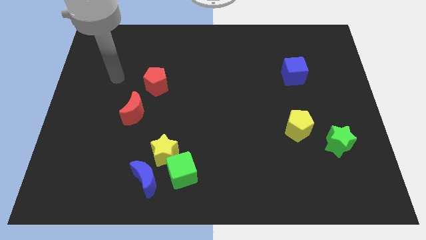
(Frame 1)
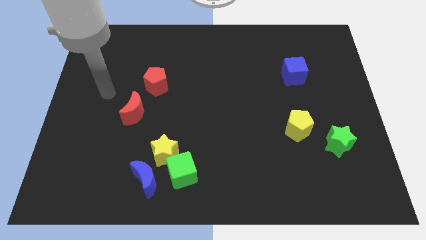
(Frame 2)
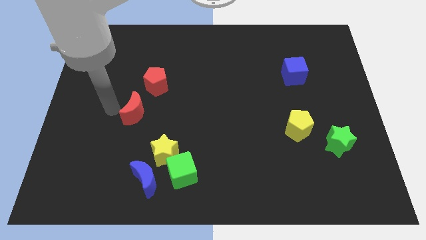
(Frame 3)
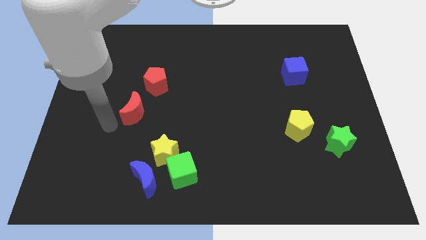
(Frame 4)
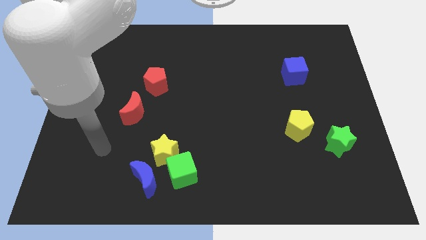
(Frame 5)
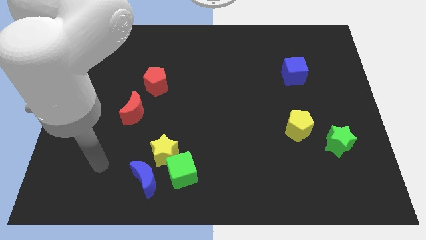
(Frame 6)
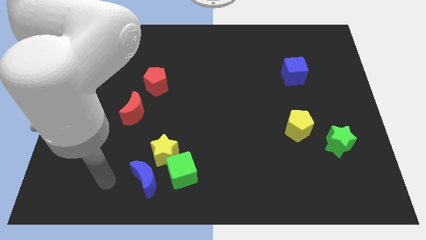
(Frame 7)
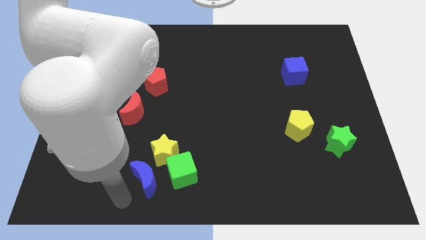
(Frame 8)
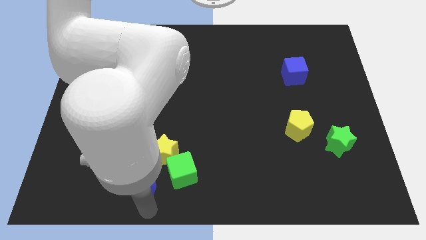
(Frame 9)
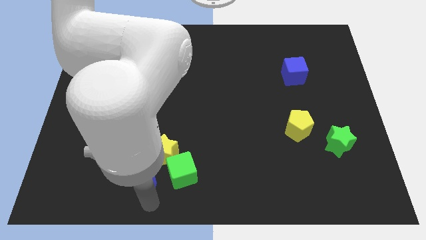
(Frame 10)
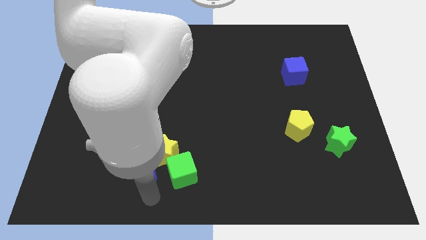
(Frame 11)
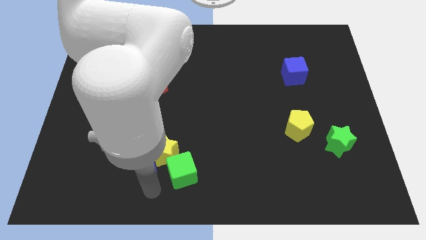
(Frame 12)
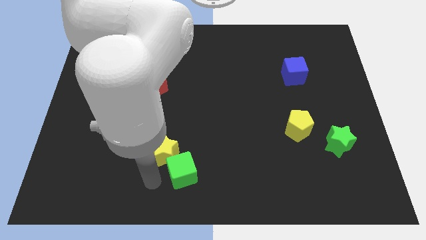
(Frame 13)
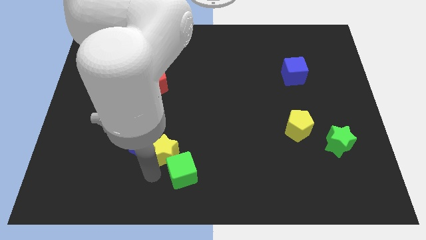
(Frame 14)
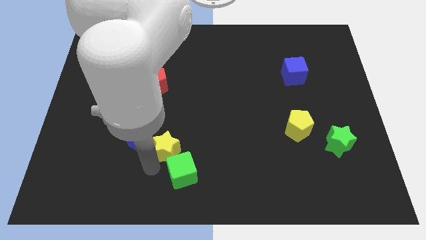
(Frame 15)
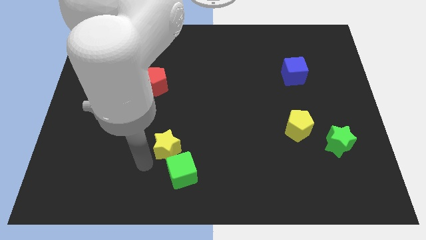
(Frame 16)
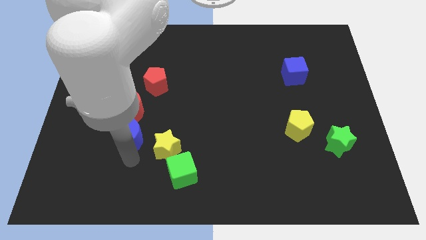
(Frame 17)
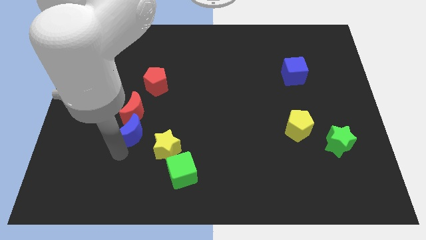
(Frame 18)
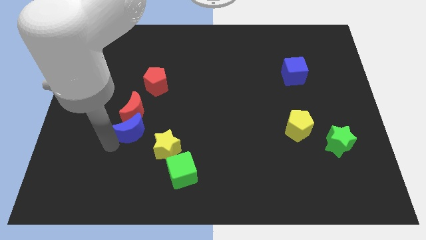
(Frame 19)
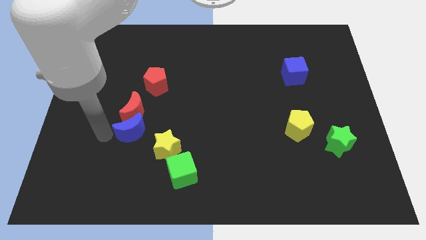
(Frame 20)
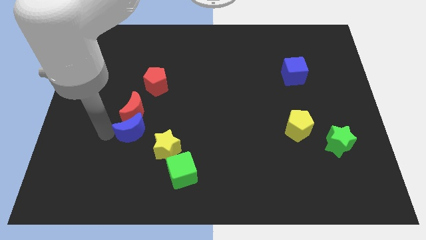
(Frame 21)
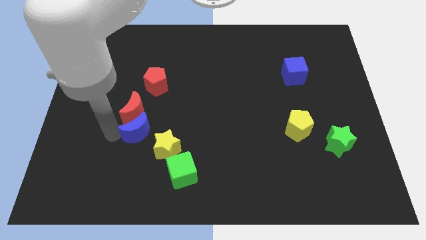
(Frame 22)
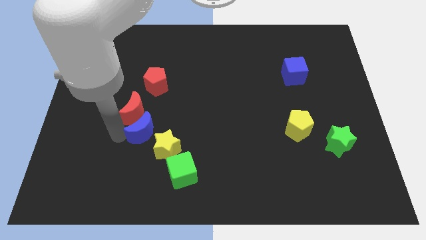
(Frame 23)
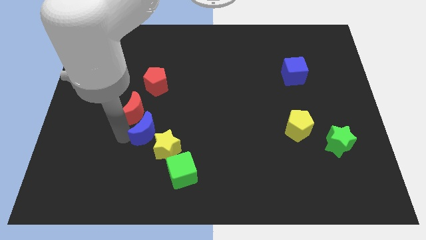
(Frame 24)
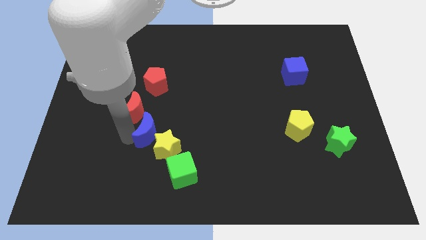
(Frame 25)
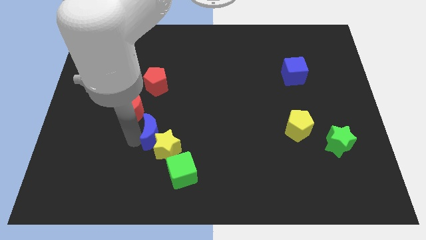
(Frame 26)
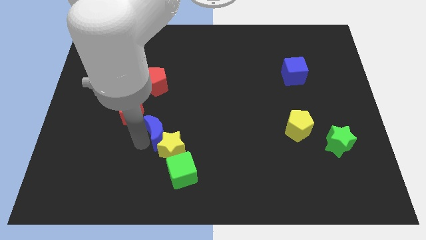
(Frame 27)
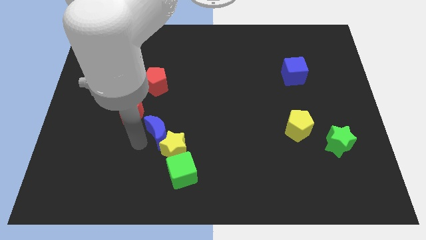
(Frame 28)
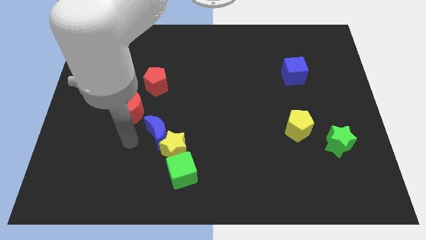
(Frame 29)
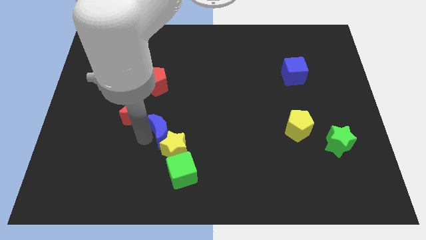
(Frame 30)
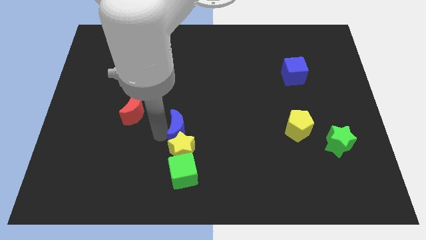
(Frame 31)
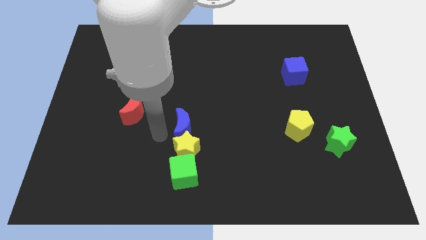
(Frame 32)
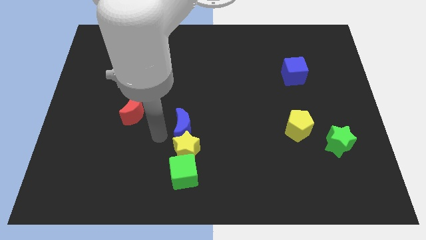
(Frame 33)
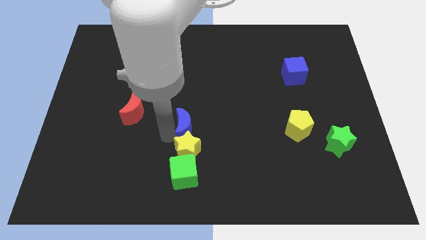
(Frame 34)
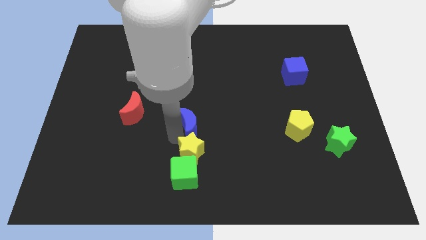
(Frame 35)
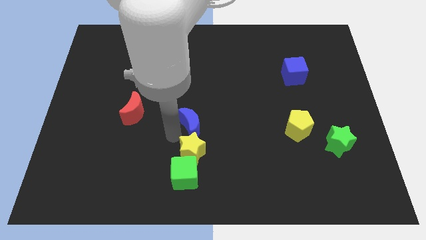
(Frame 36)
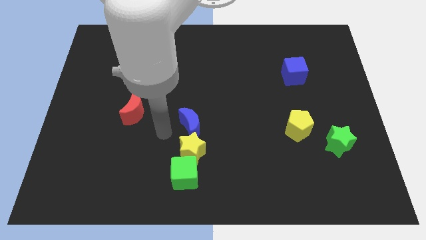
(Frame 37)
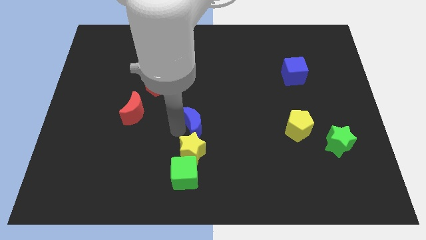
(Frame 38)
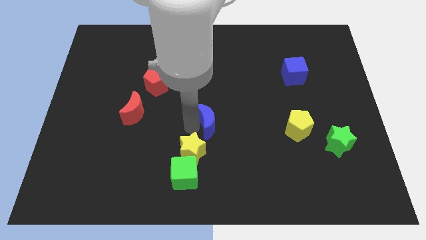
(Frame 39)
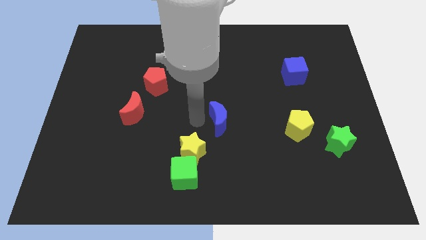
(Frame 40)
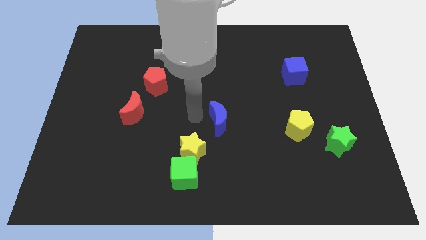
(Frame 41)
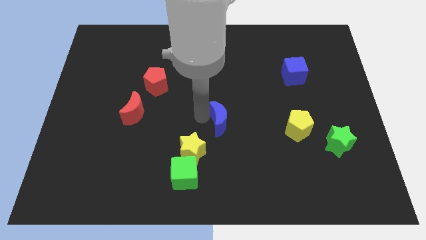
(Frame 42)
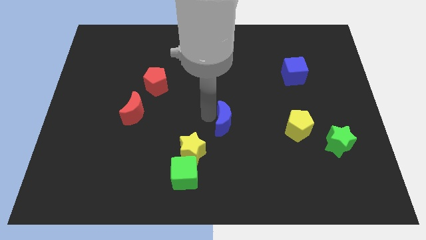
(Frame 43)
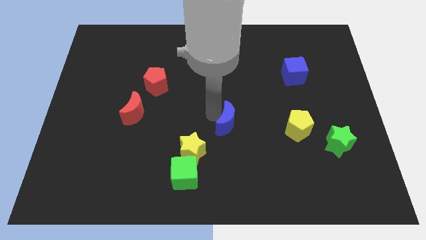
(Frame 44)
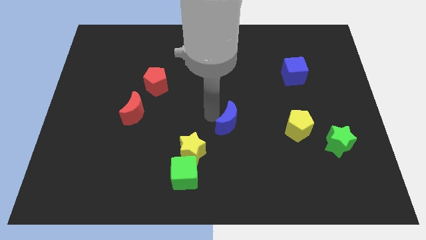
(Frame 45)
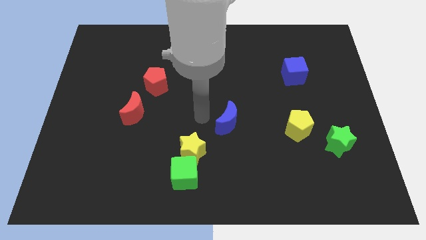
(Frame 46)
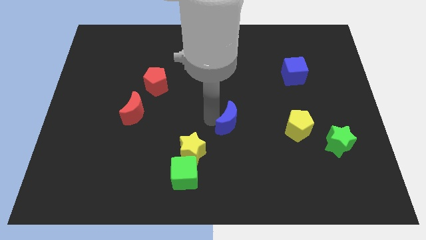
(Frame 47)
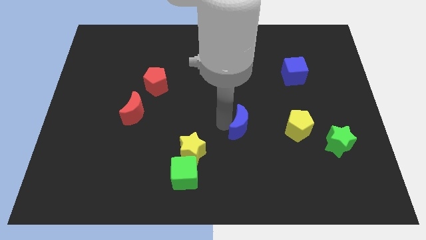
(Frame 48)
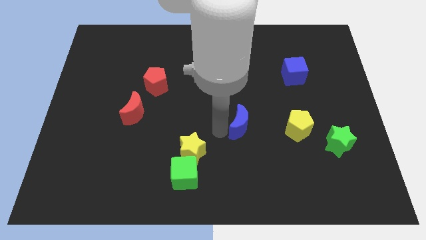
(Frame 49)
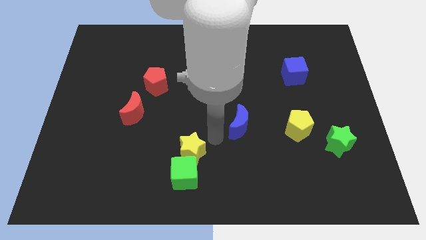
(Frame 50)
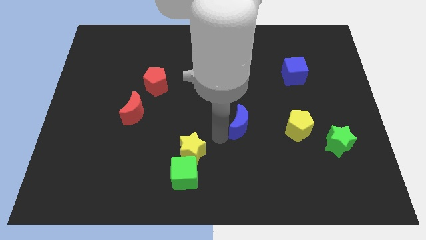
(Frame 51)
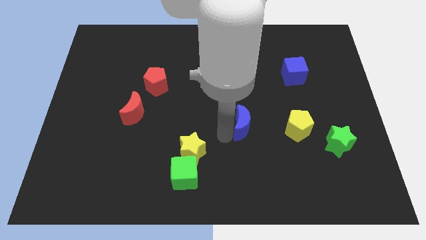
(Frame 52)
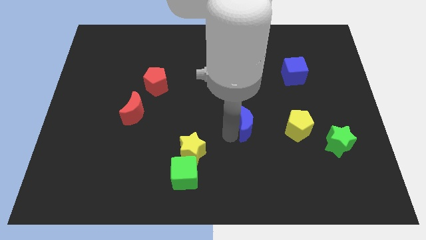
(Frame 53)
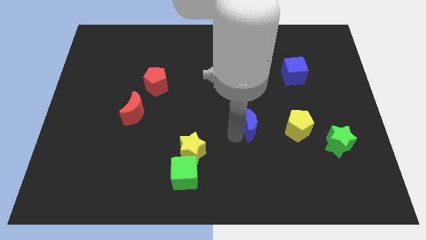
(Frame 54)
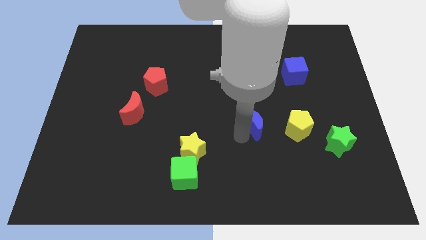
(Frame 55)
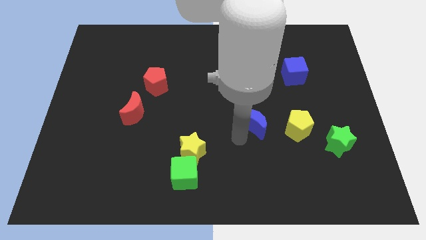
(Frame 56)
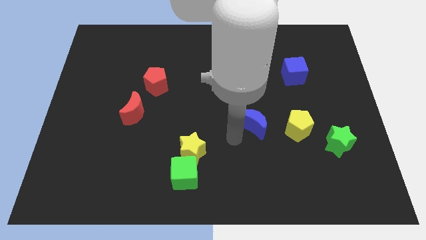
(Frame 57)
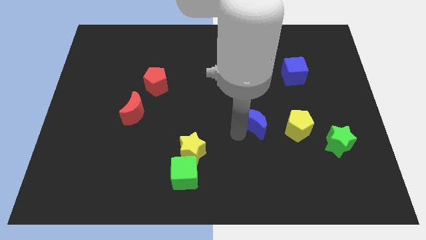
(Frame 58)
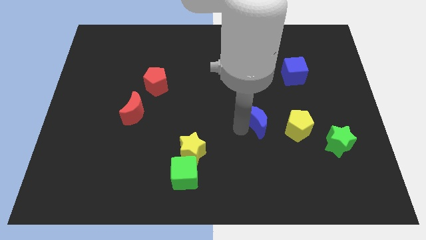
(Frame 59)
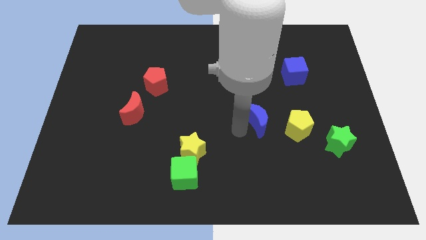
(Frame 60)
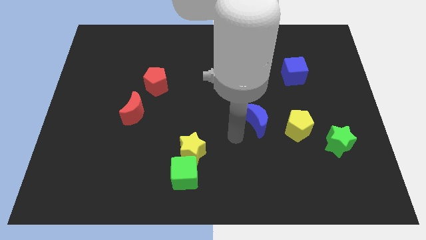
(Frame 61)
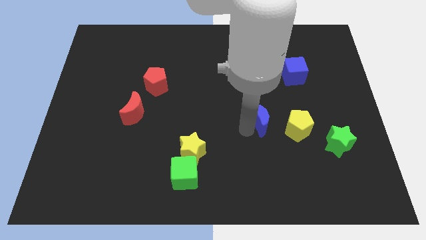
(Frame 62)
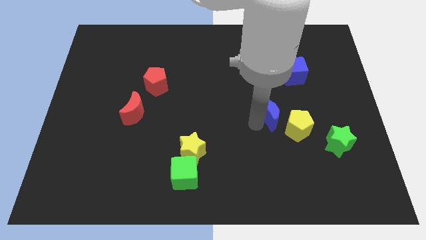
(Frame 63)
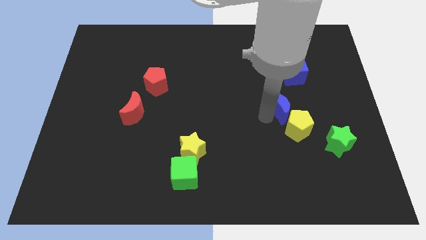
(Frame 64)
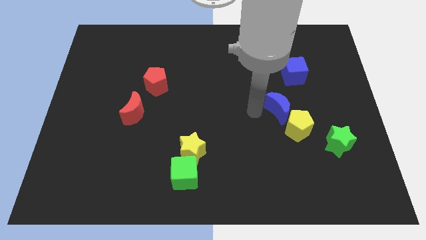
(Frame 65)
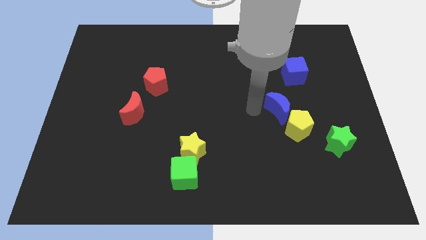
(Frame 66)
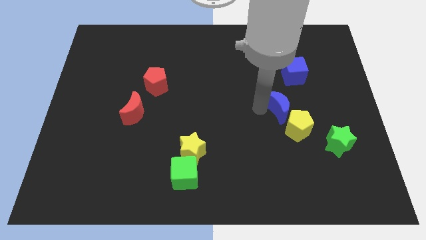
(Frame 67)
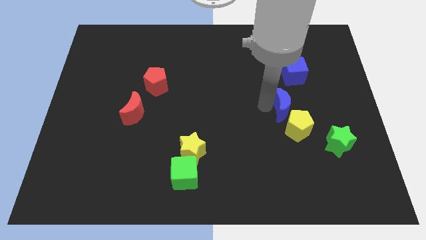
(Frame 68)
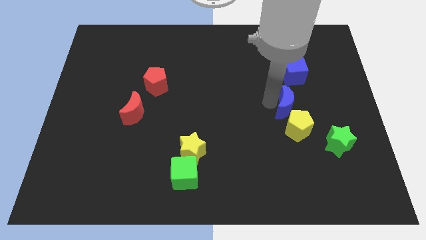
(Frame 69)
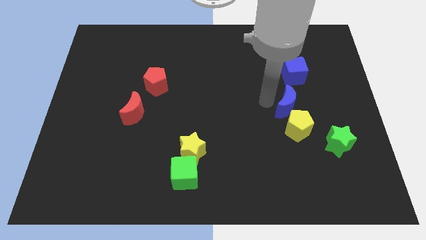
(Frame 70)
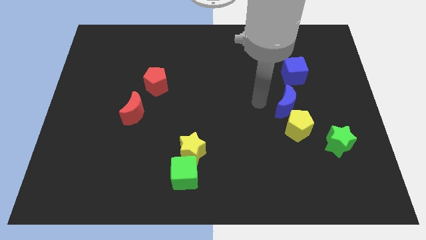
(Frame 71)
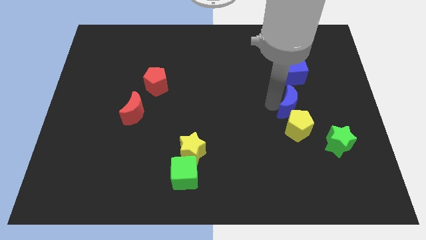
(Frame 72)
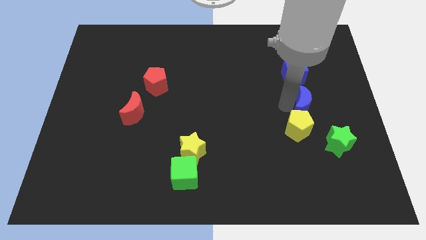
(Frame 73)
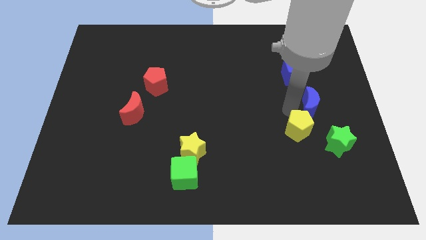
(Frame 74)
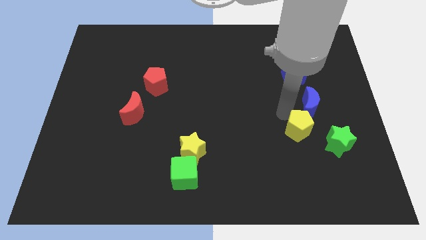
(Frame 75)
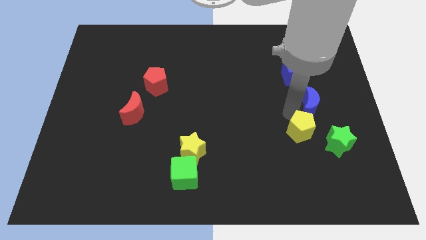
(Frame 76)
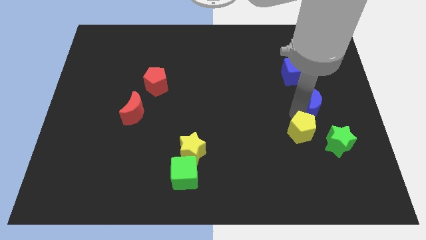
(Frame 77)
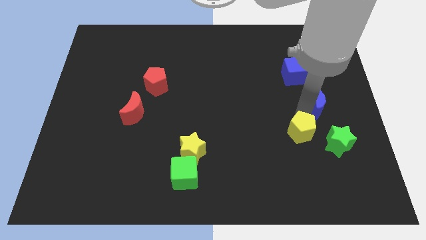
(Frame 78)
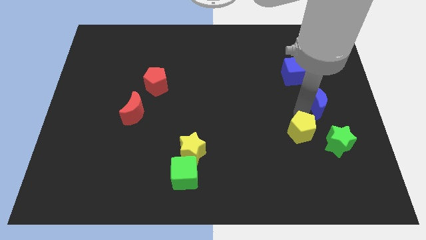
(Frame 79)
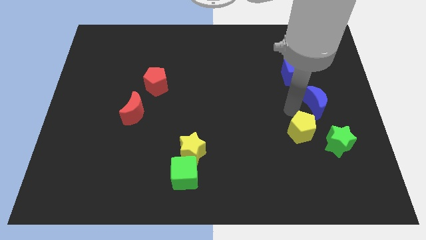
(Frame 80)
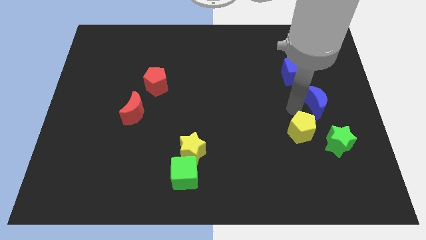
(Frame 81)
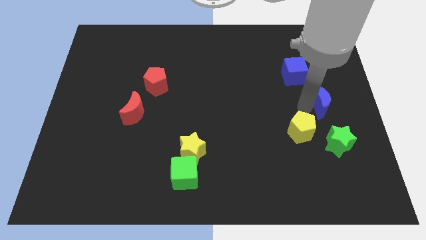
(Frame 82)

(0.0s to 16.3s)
move the blue moon to the right side
